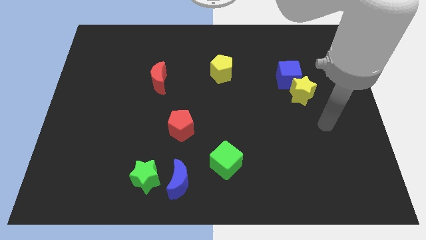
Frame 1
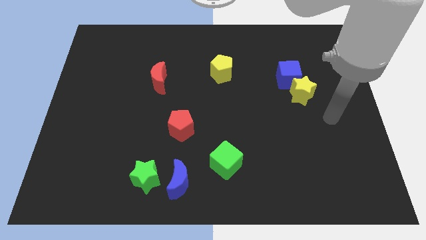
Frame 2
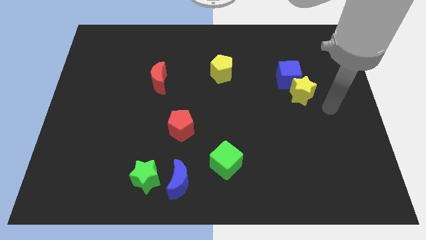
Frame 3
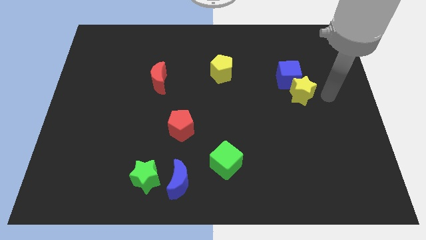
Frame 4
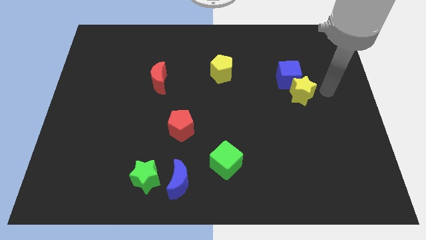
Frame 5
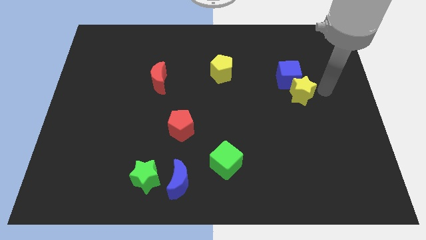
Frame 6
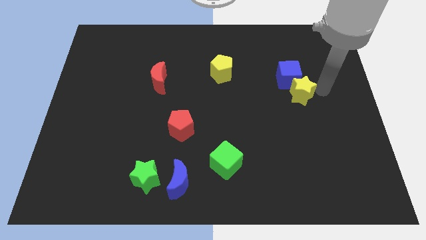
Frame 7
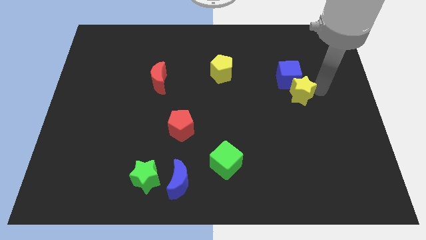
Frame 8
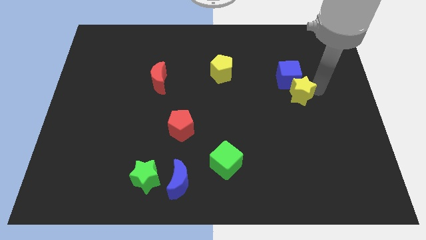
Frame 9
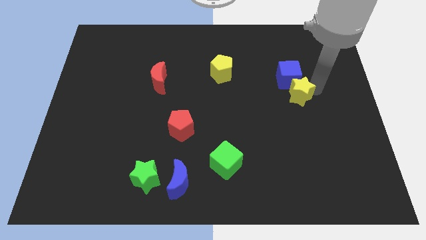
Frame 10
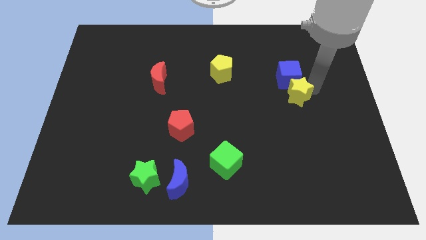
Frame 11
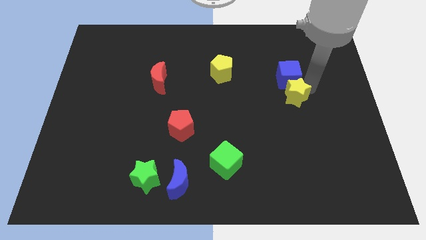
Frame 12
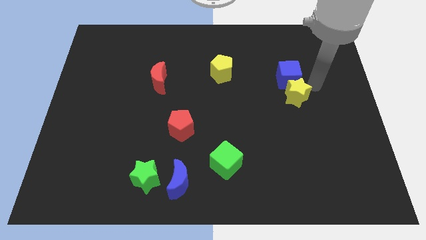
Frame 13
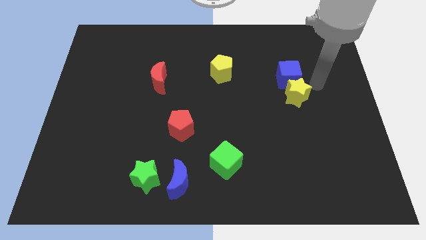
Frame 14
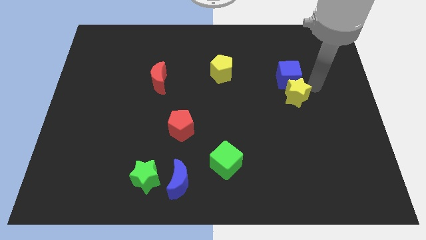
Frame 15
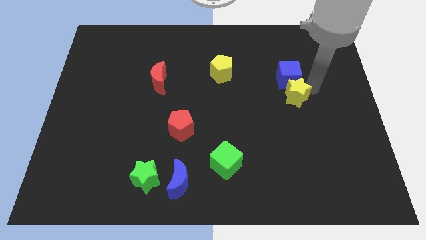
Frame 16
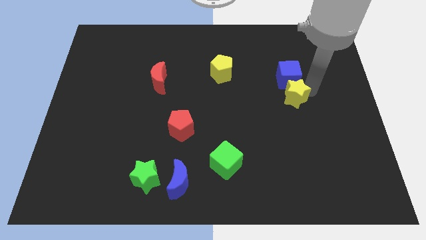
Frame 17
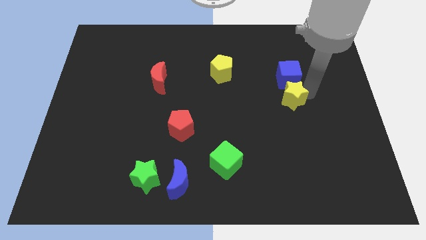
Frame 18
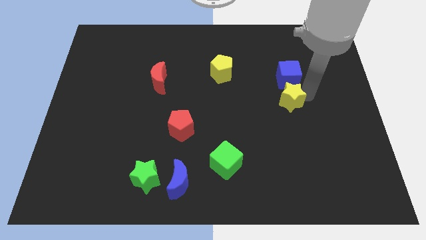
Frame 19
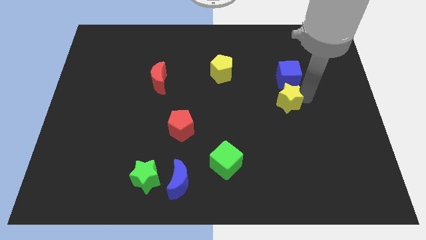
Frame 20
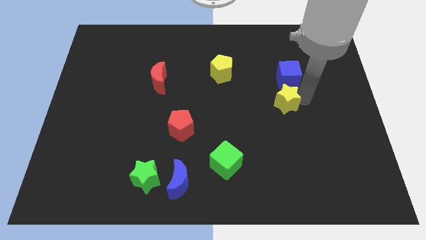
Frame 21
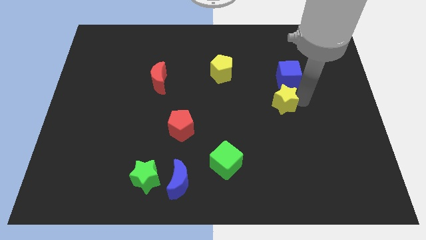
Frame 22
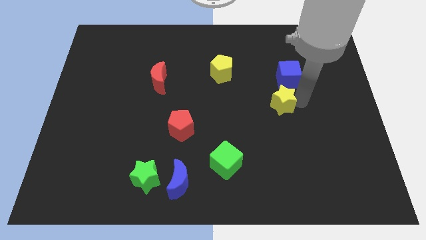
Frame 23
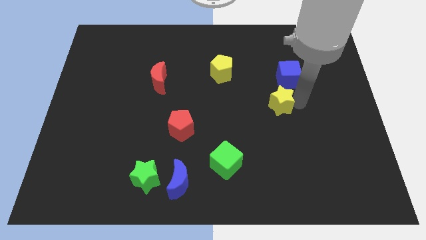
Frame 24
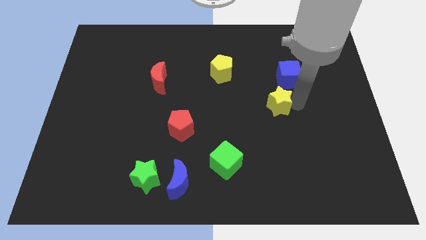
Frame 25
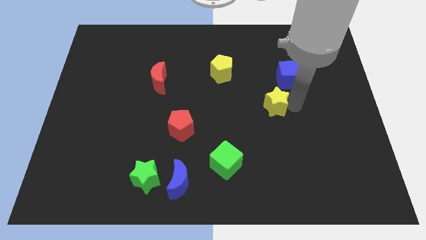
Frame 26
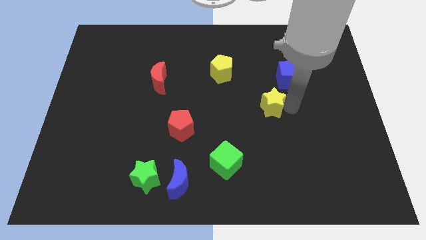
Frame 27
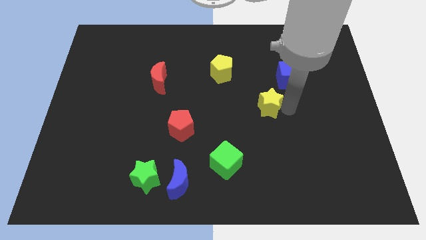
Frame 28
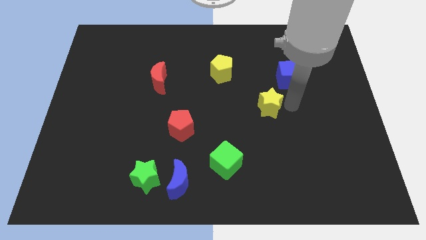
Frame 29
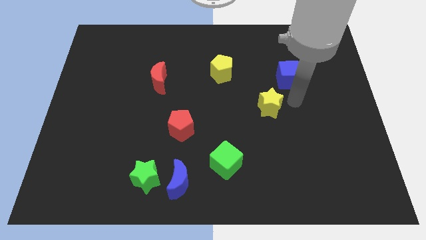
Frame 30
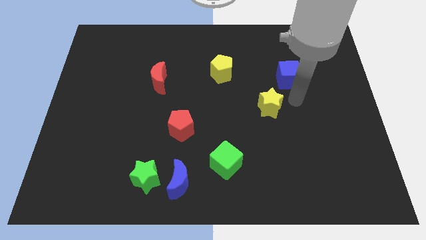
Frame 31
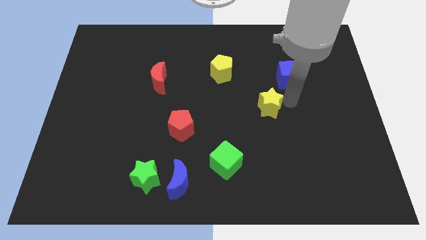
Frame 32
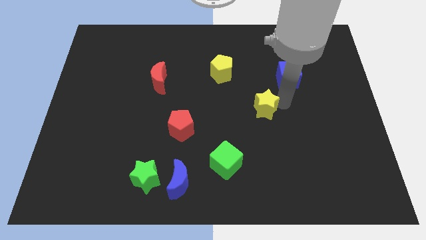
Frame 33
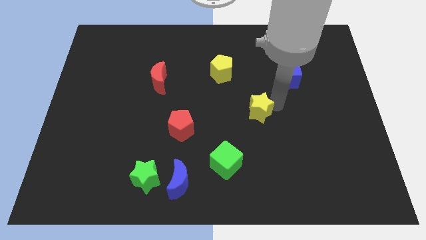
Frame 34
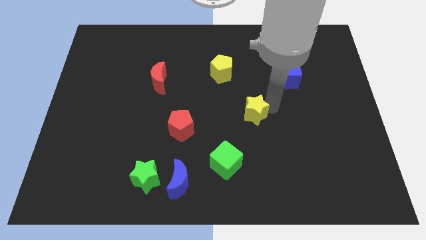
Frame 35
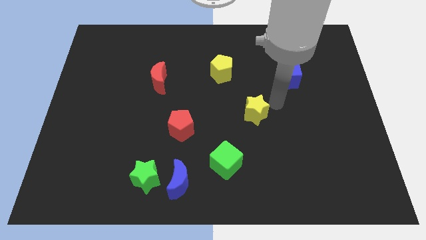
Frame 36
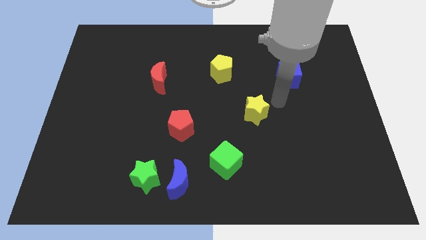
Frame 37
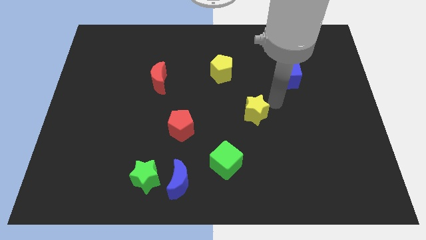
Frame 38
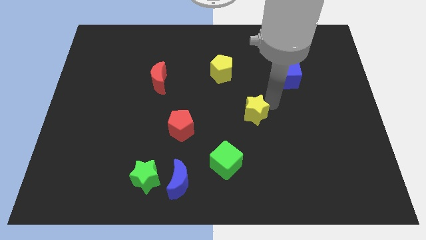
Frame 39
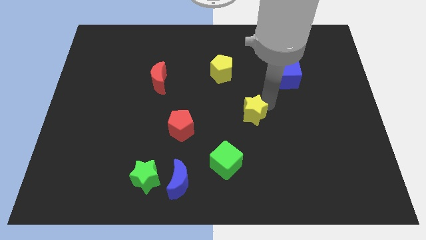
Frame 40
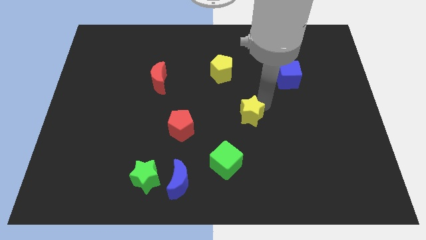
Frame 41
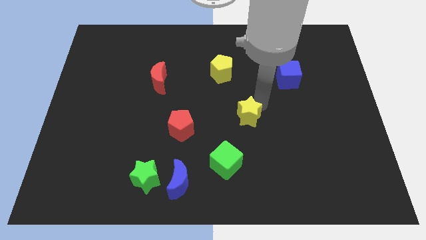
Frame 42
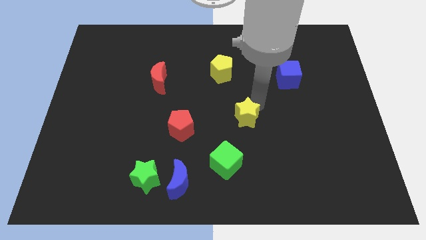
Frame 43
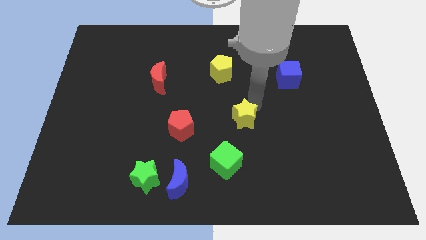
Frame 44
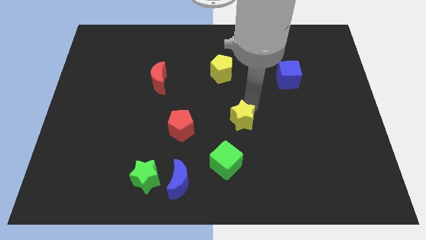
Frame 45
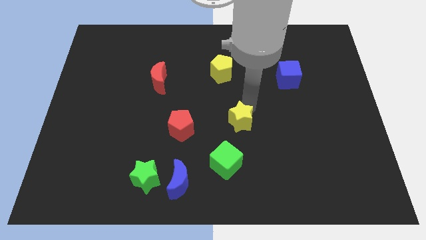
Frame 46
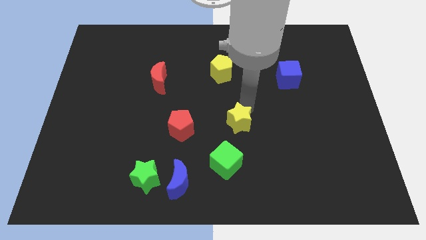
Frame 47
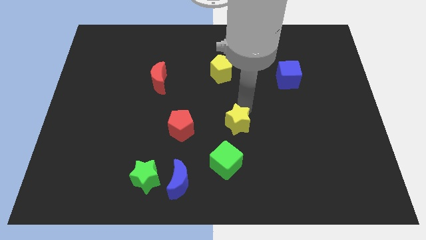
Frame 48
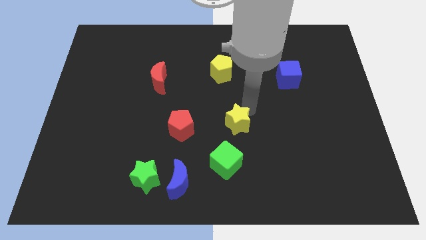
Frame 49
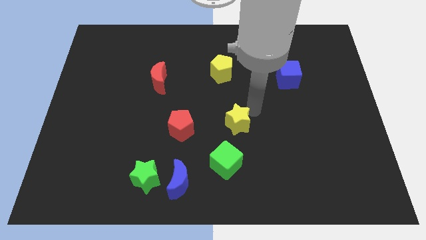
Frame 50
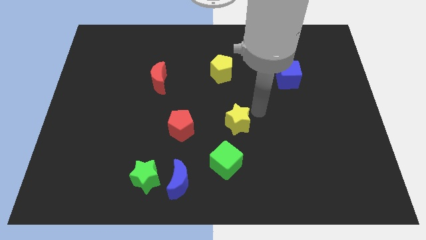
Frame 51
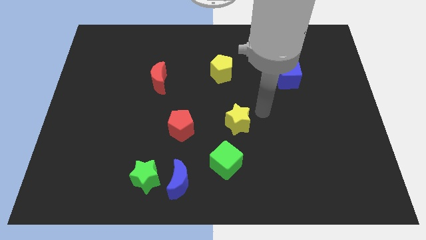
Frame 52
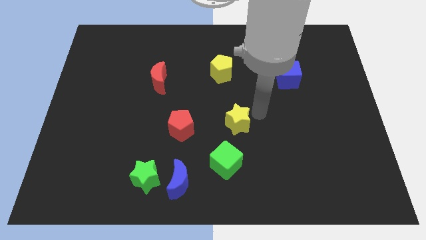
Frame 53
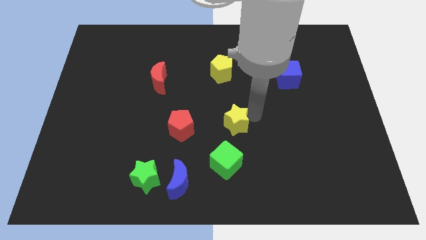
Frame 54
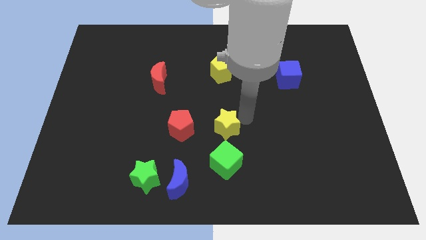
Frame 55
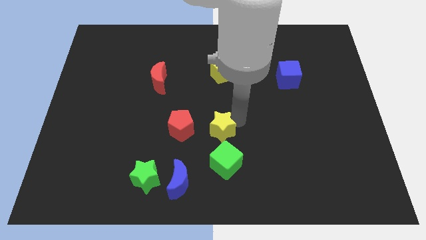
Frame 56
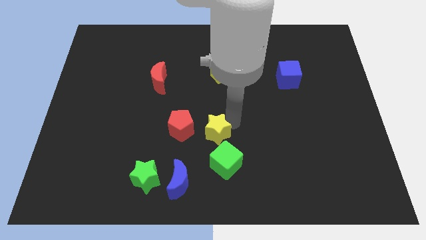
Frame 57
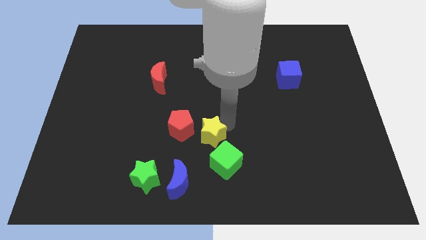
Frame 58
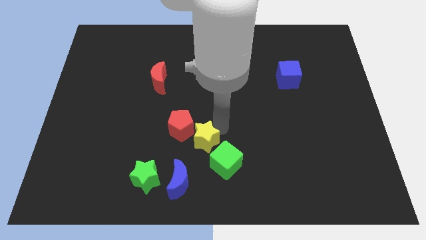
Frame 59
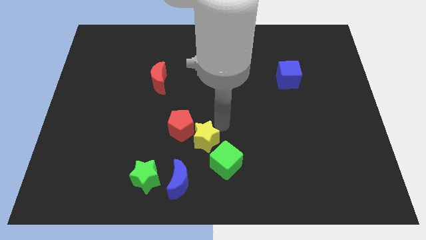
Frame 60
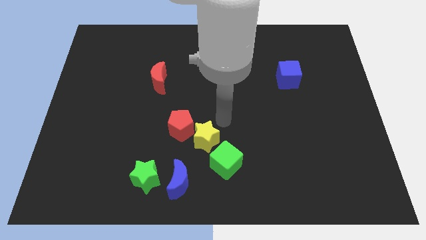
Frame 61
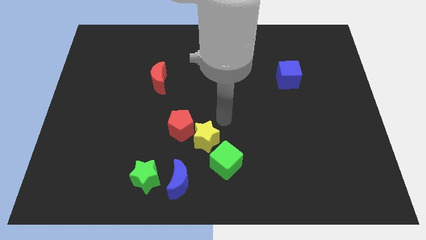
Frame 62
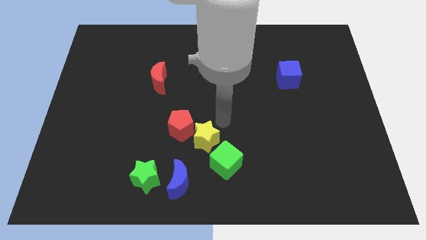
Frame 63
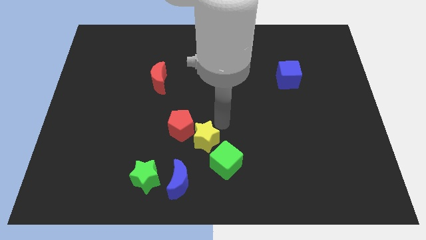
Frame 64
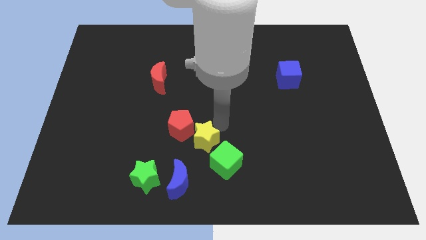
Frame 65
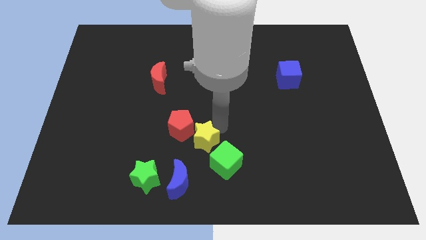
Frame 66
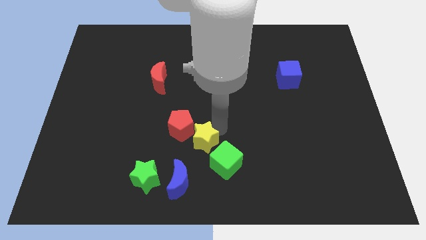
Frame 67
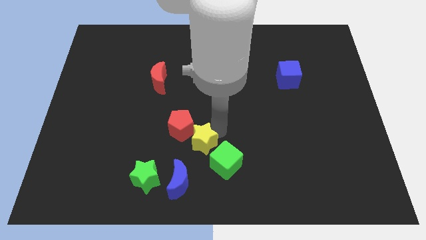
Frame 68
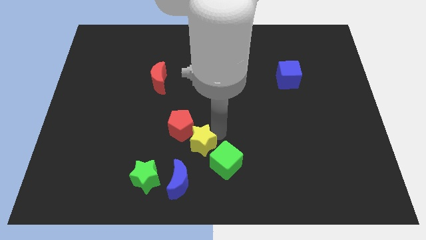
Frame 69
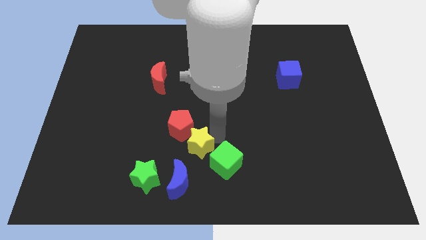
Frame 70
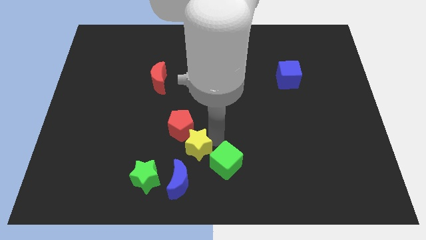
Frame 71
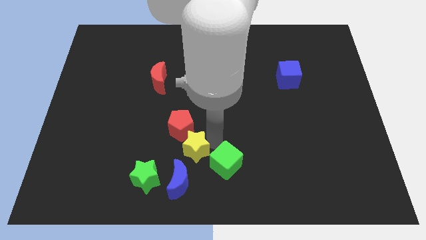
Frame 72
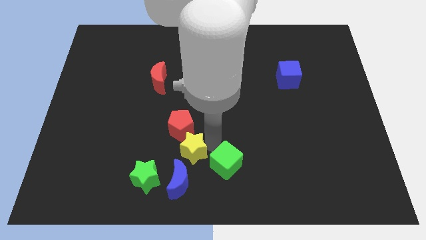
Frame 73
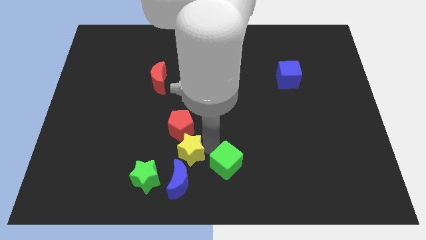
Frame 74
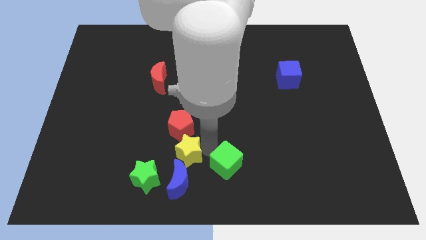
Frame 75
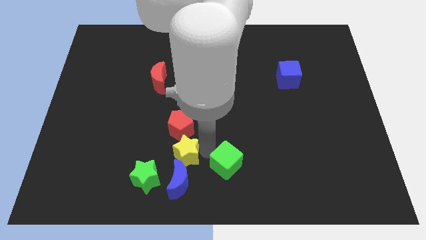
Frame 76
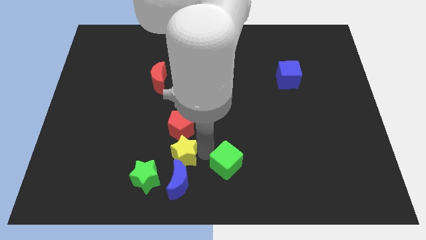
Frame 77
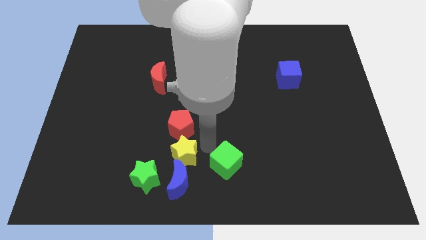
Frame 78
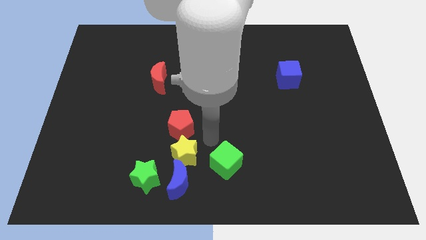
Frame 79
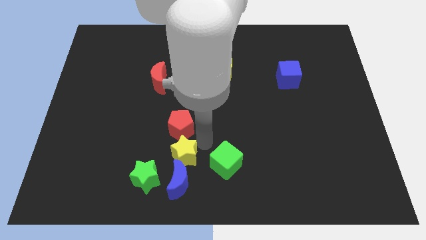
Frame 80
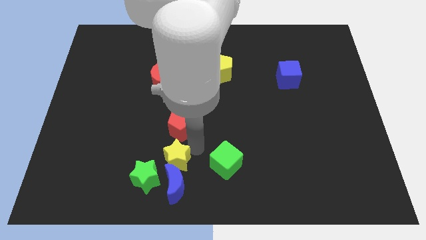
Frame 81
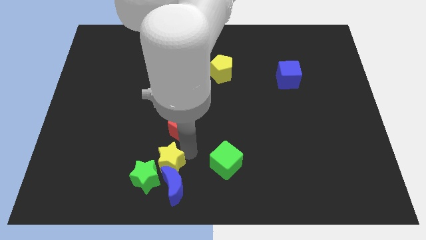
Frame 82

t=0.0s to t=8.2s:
move the yellow star close to the green star

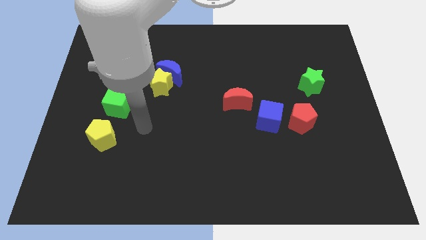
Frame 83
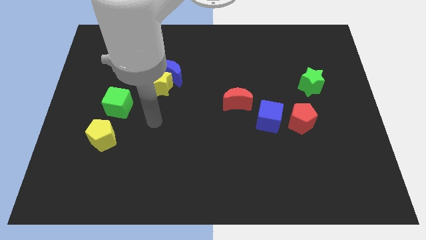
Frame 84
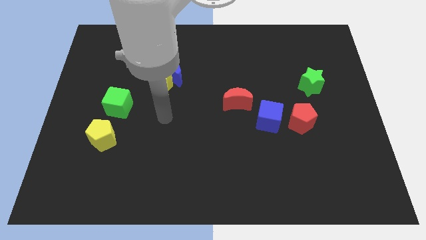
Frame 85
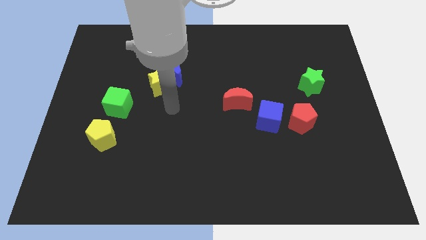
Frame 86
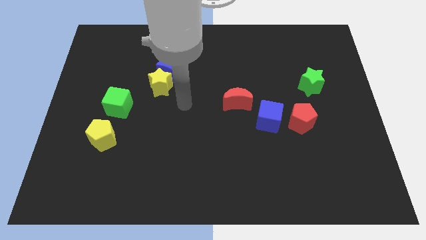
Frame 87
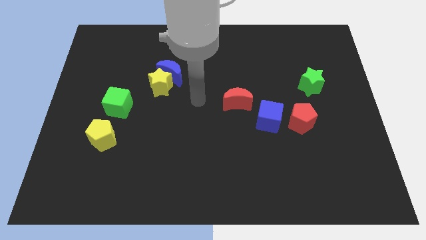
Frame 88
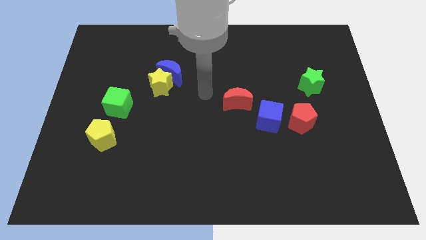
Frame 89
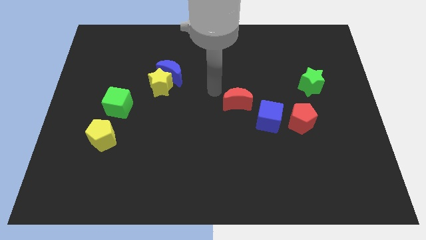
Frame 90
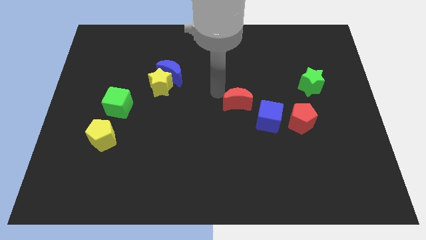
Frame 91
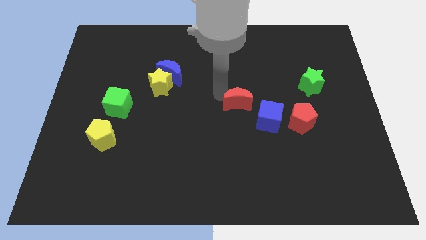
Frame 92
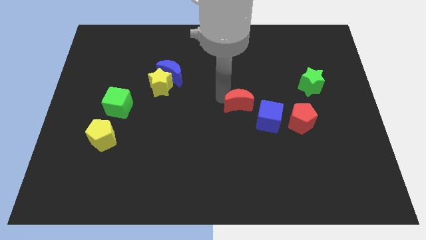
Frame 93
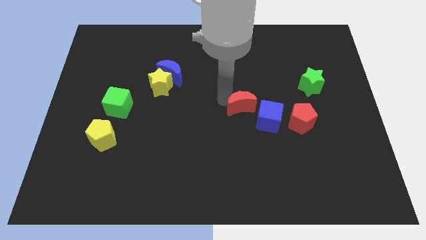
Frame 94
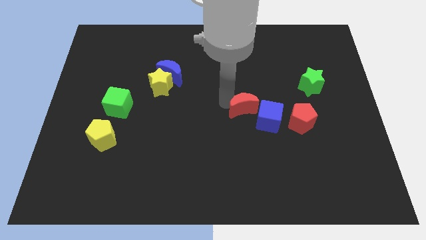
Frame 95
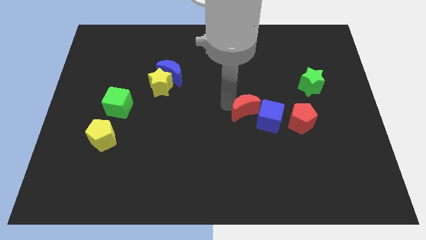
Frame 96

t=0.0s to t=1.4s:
put the red moon to the blue cube
